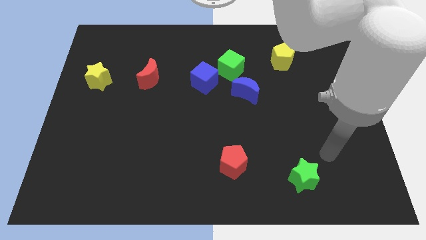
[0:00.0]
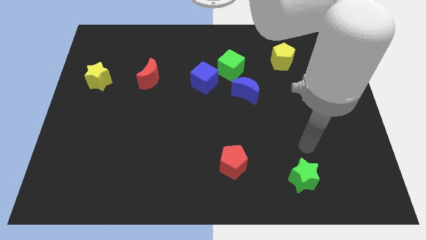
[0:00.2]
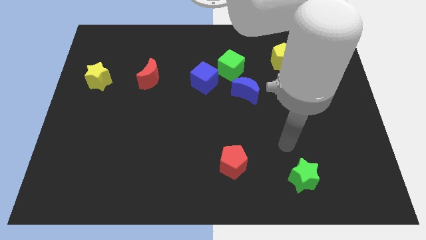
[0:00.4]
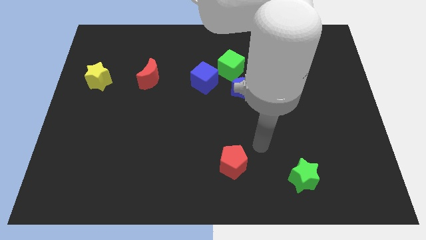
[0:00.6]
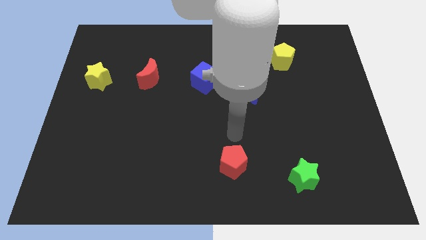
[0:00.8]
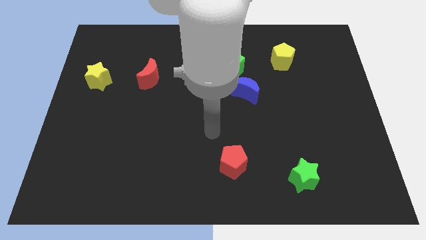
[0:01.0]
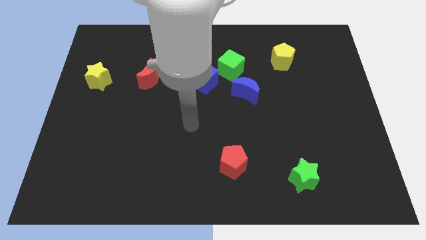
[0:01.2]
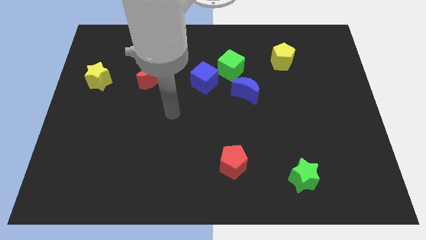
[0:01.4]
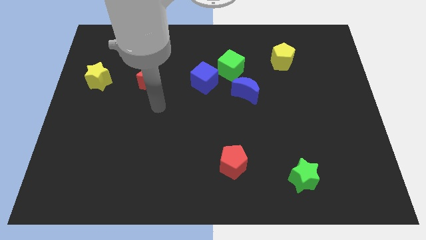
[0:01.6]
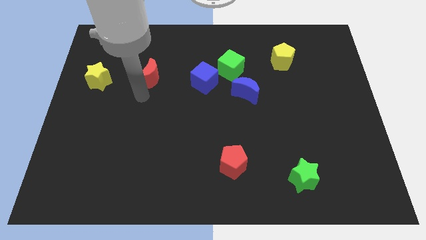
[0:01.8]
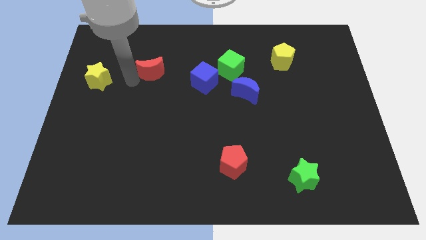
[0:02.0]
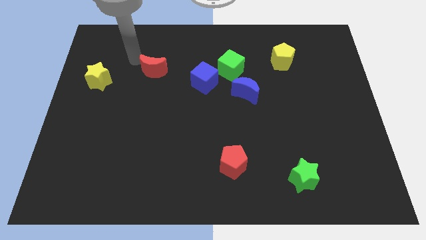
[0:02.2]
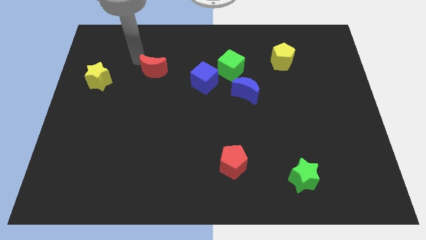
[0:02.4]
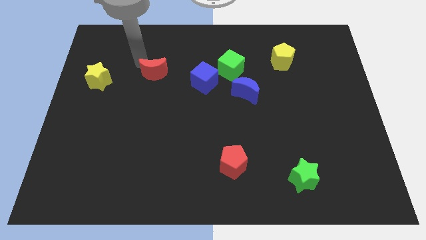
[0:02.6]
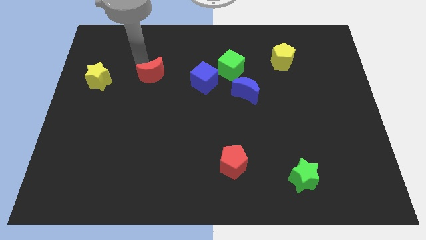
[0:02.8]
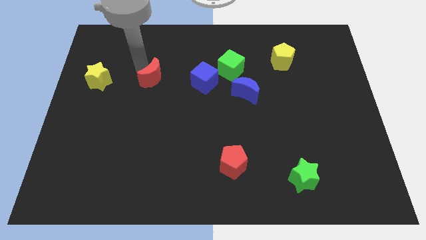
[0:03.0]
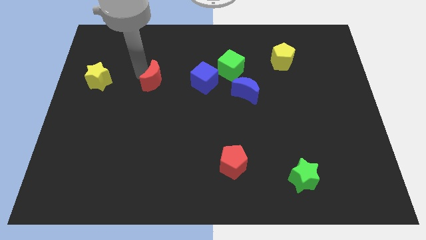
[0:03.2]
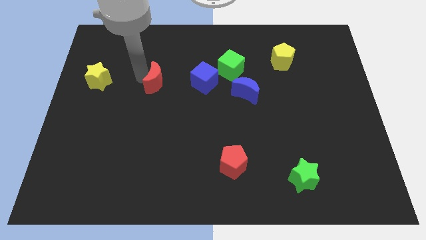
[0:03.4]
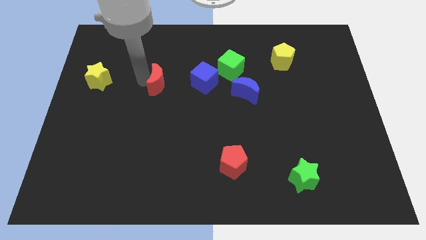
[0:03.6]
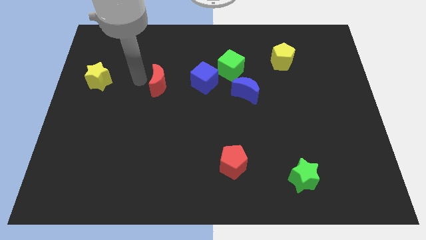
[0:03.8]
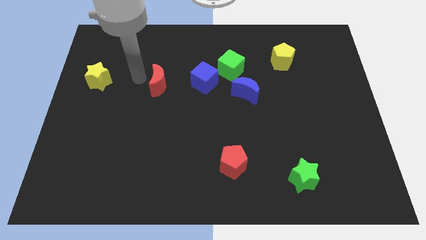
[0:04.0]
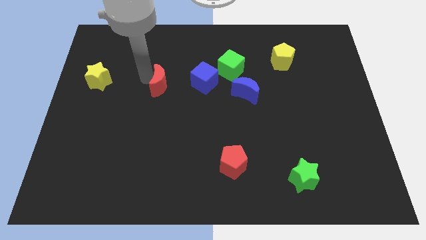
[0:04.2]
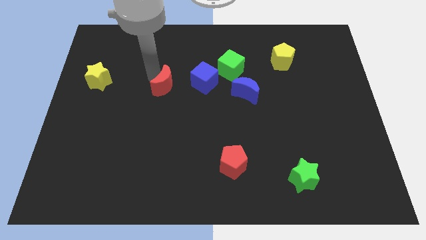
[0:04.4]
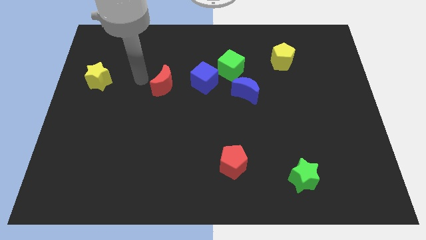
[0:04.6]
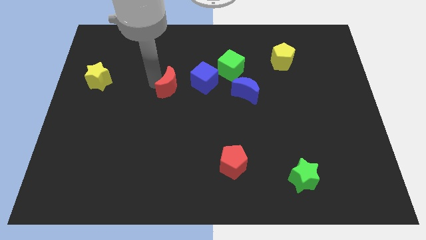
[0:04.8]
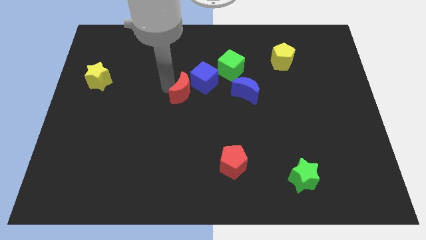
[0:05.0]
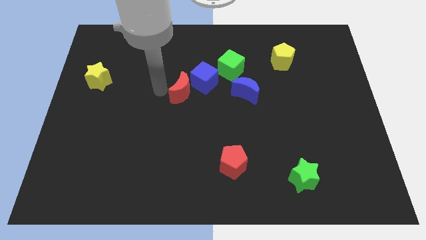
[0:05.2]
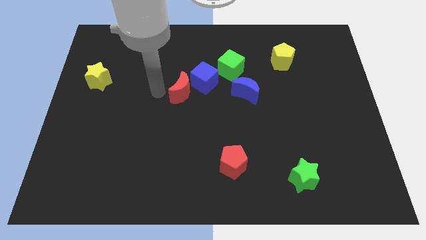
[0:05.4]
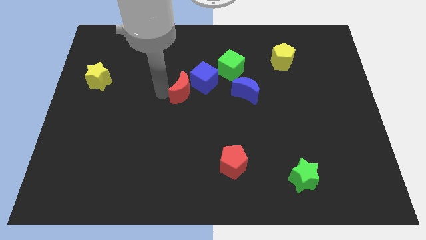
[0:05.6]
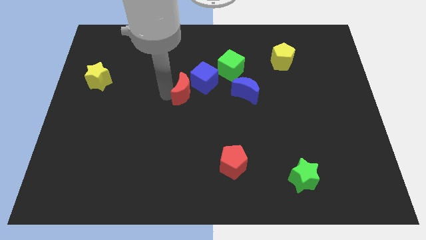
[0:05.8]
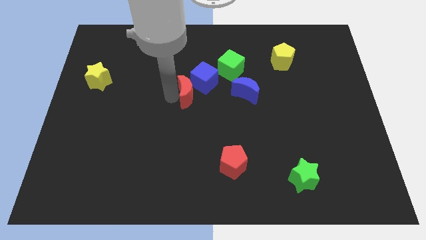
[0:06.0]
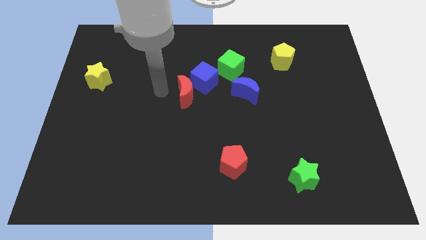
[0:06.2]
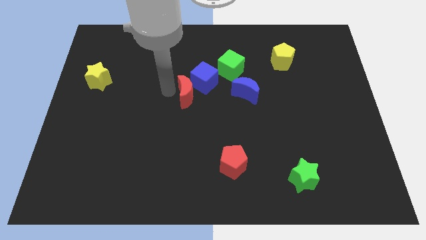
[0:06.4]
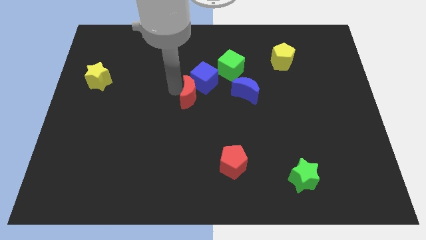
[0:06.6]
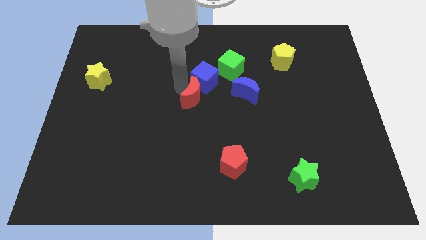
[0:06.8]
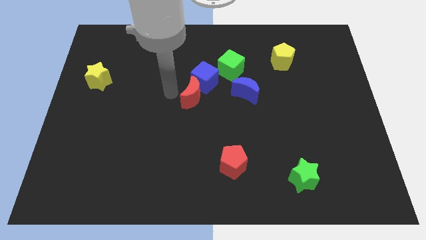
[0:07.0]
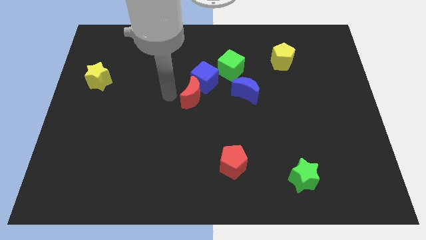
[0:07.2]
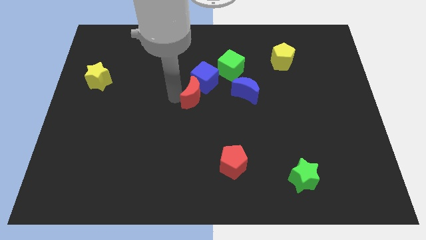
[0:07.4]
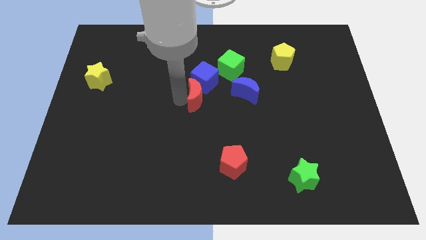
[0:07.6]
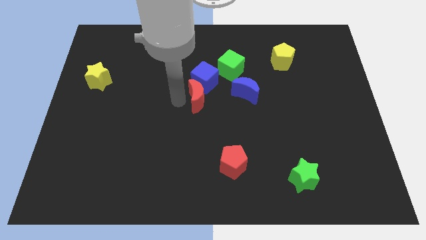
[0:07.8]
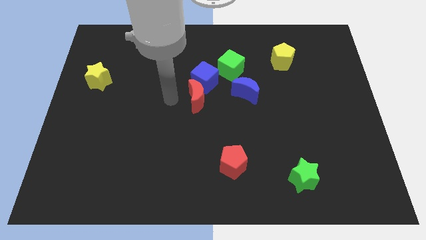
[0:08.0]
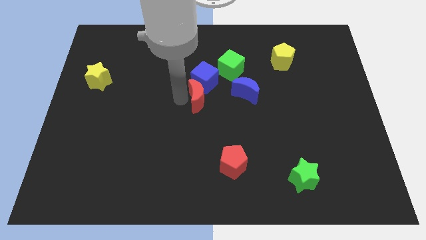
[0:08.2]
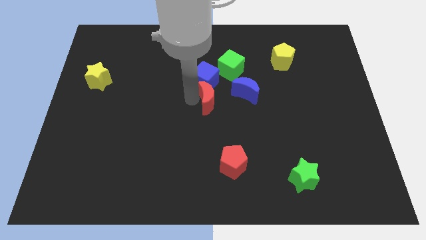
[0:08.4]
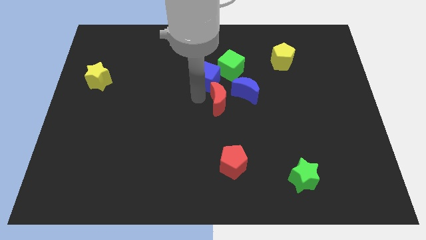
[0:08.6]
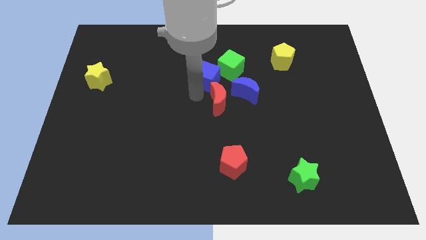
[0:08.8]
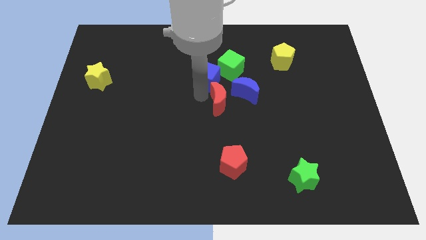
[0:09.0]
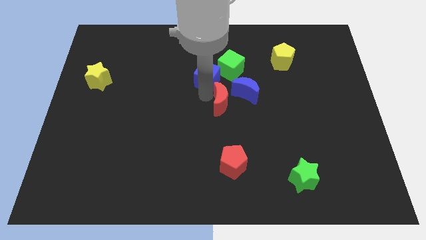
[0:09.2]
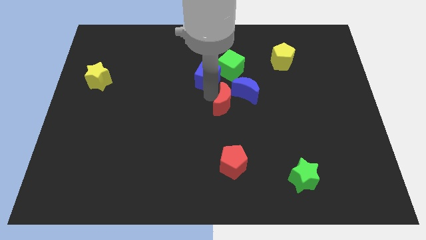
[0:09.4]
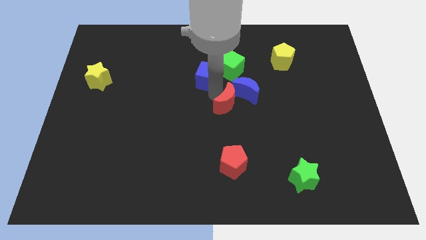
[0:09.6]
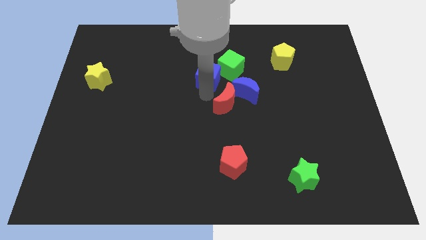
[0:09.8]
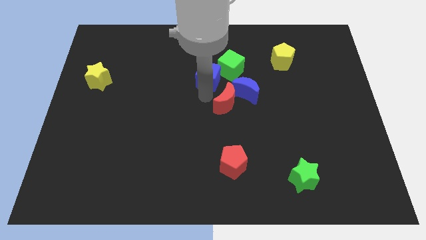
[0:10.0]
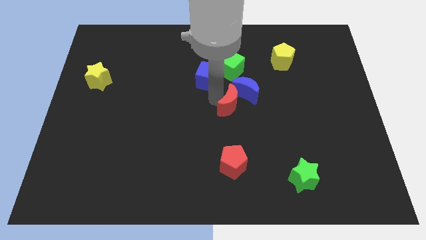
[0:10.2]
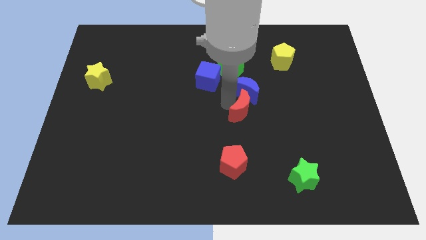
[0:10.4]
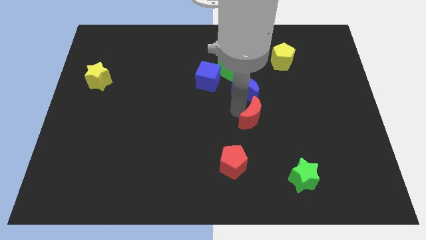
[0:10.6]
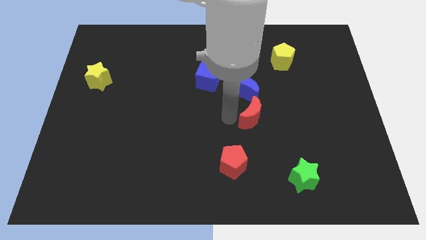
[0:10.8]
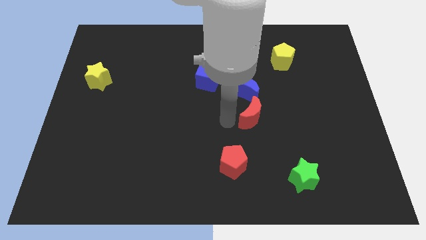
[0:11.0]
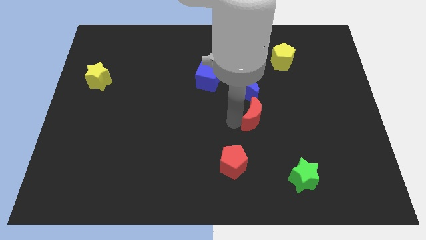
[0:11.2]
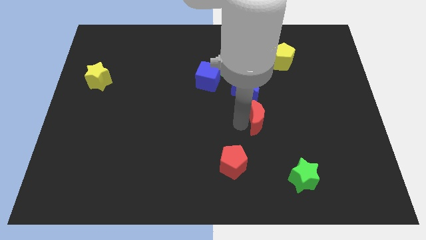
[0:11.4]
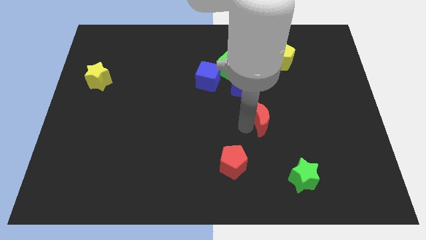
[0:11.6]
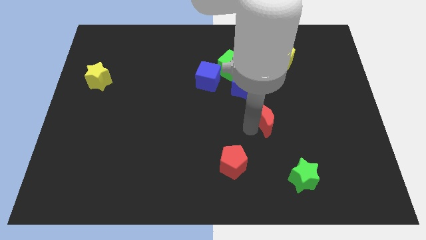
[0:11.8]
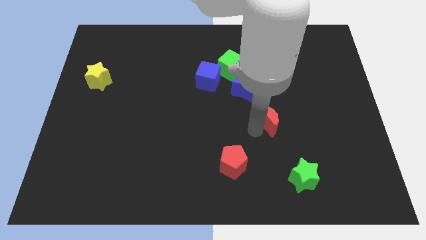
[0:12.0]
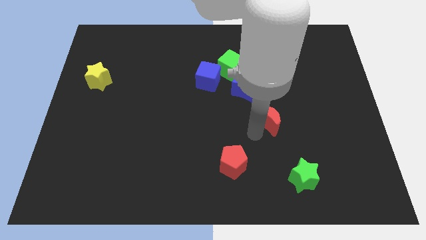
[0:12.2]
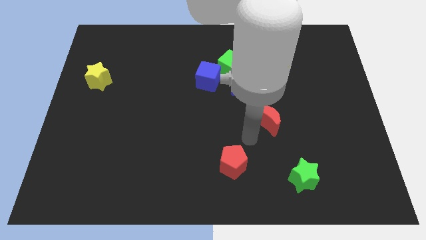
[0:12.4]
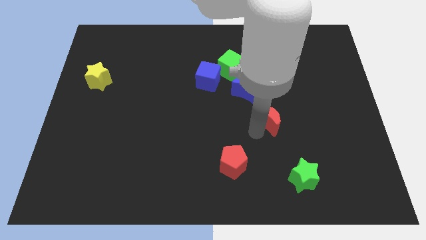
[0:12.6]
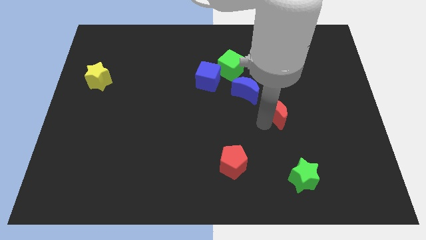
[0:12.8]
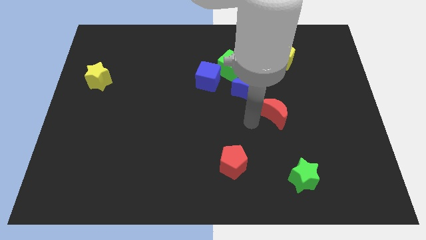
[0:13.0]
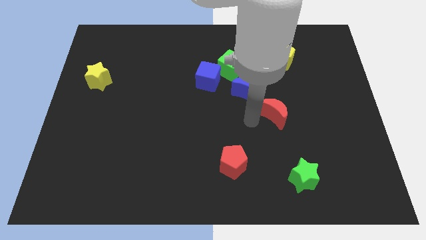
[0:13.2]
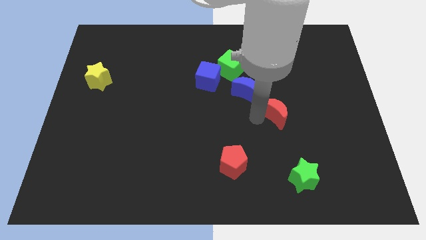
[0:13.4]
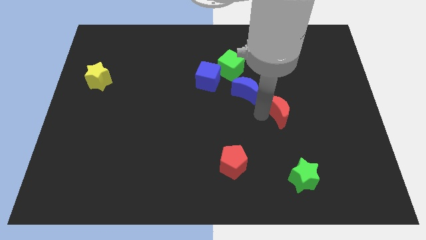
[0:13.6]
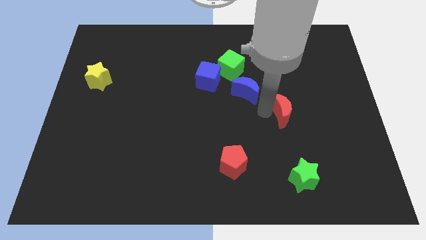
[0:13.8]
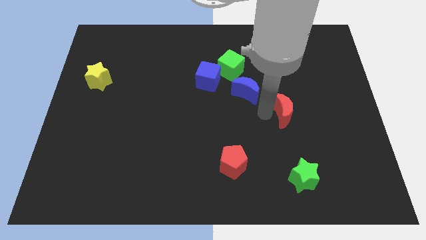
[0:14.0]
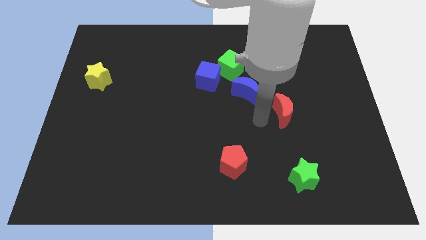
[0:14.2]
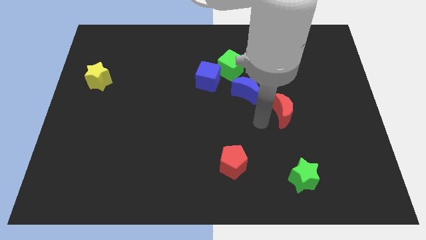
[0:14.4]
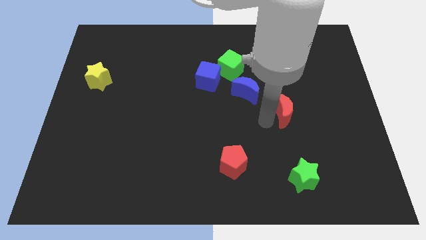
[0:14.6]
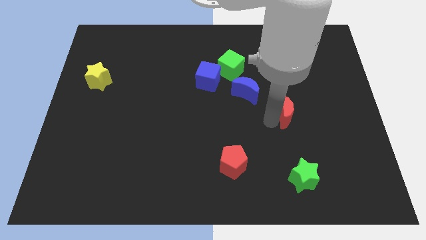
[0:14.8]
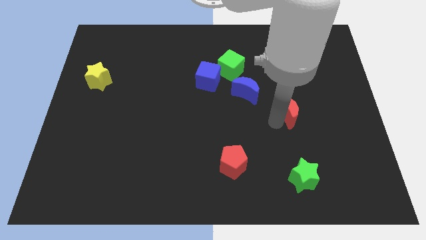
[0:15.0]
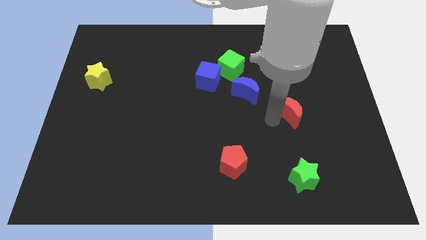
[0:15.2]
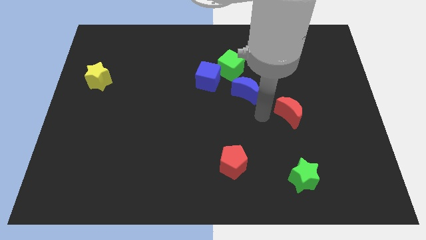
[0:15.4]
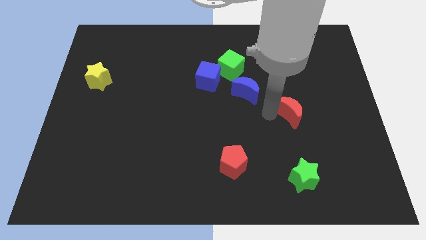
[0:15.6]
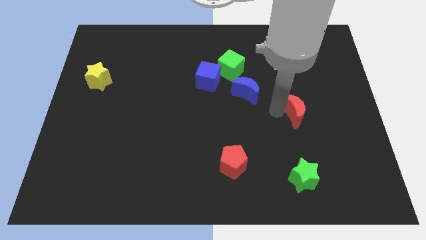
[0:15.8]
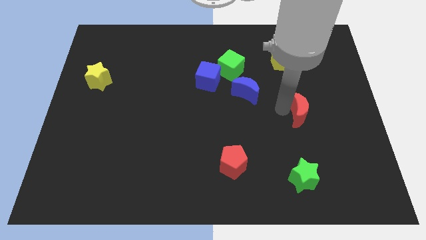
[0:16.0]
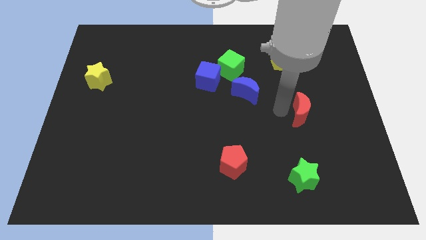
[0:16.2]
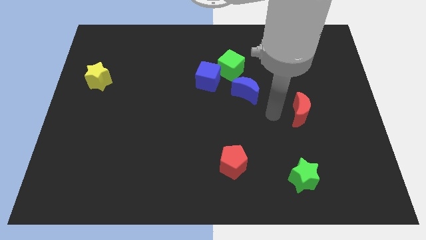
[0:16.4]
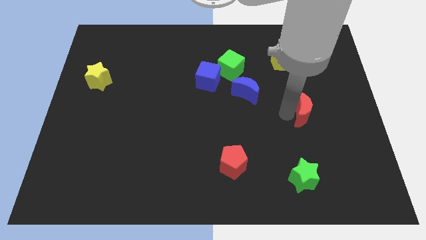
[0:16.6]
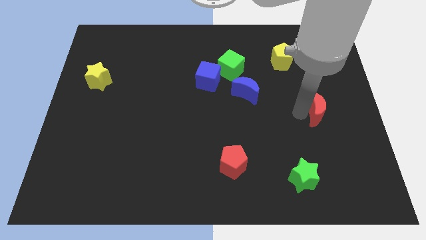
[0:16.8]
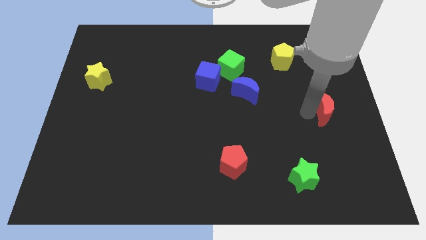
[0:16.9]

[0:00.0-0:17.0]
push the red moon to the right side
